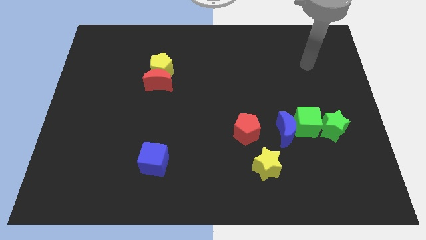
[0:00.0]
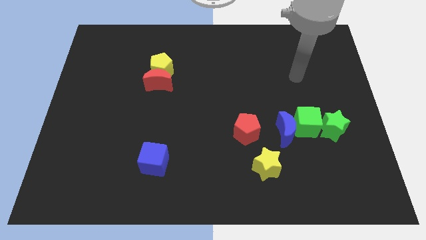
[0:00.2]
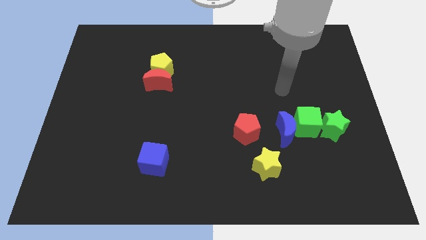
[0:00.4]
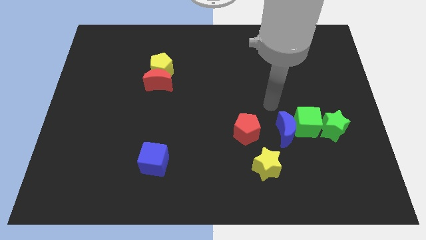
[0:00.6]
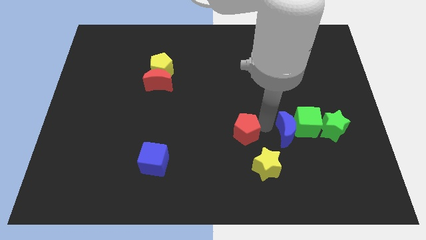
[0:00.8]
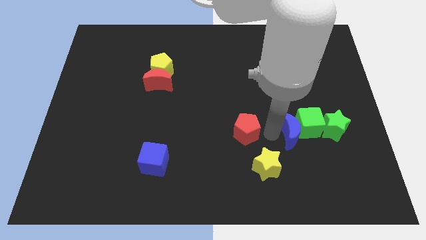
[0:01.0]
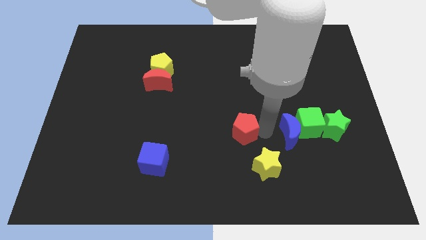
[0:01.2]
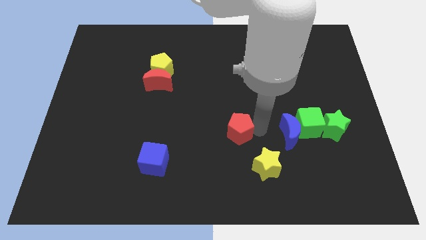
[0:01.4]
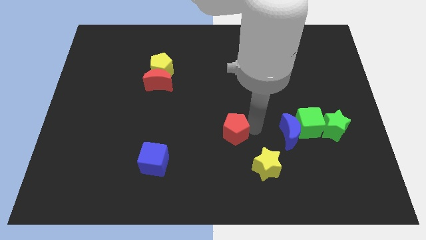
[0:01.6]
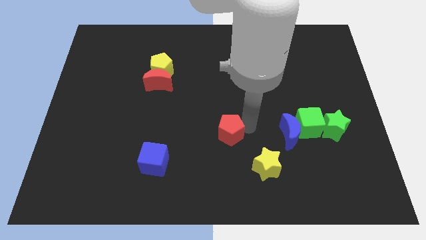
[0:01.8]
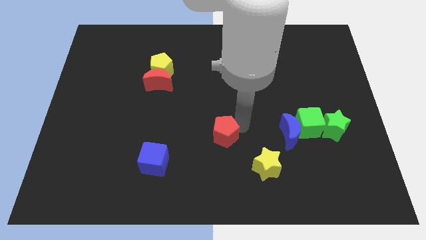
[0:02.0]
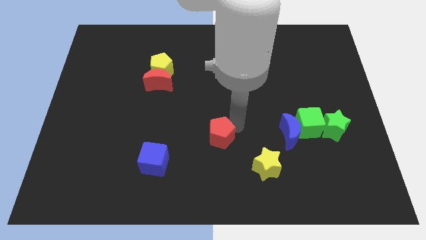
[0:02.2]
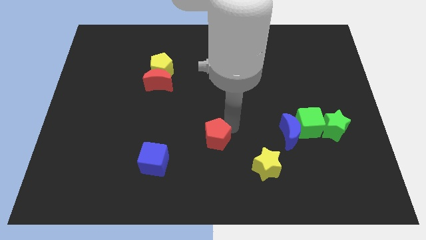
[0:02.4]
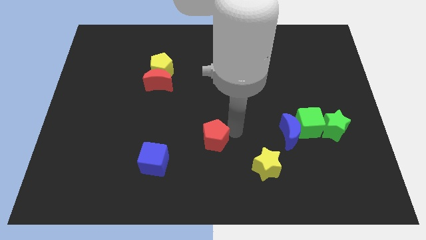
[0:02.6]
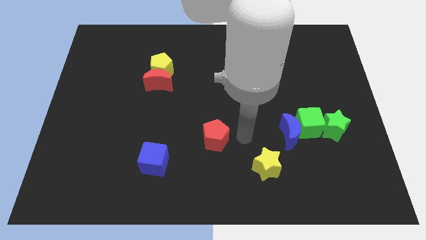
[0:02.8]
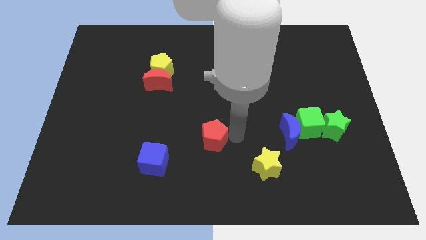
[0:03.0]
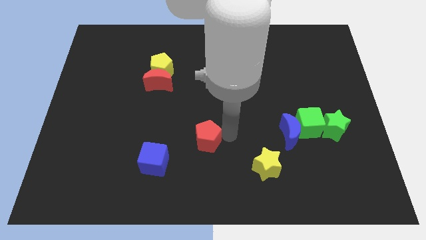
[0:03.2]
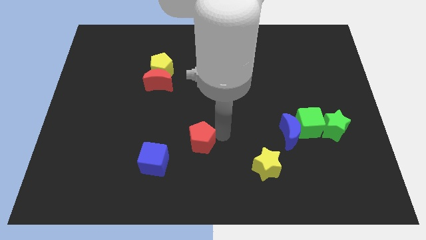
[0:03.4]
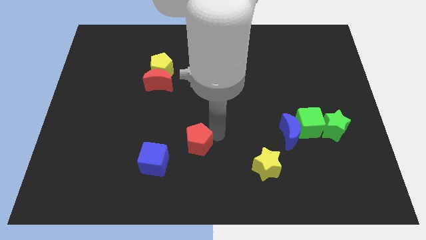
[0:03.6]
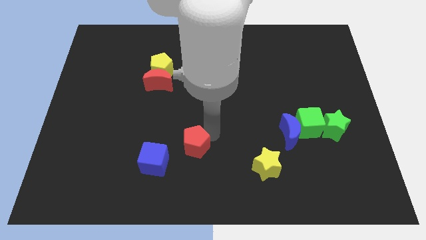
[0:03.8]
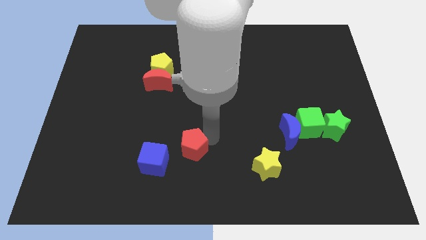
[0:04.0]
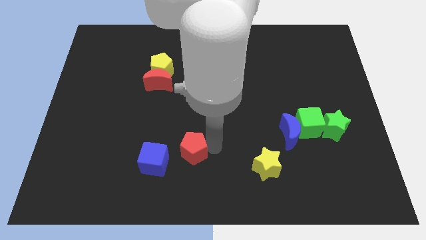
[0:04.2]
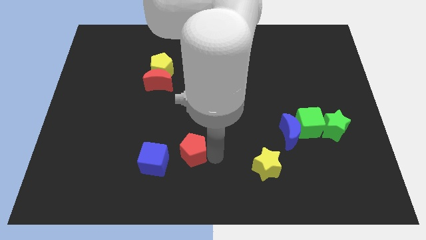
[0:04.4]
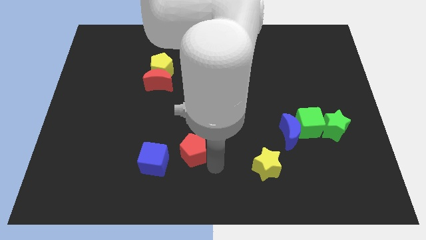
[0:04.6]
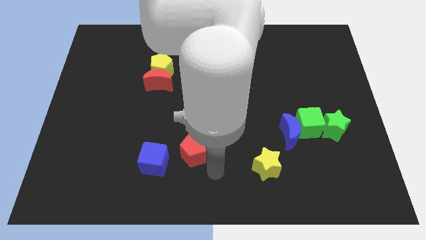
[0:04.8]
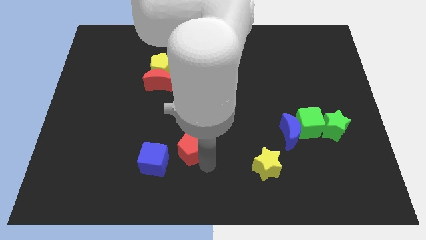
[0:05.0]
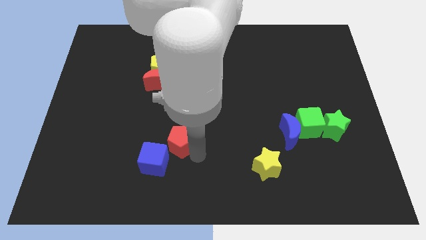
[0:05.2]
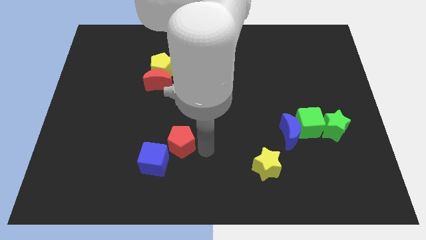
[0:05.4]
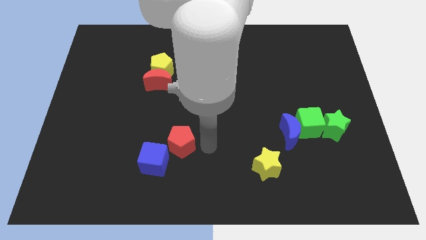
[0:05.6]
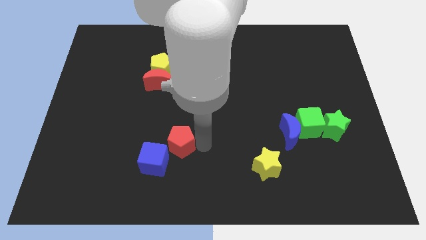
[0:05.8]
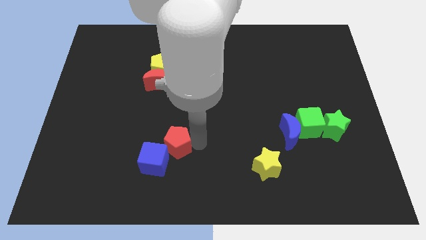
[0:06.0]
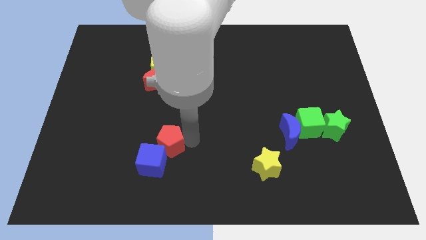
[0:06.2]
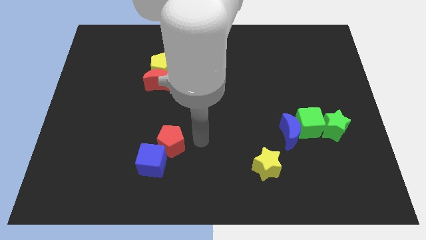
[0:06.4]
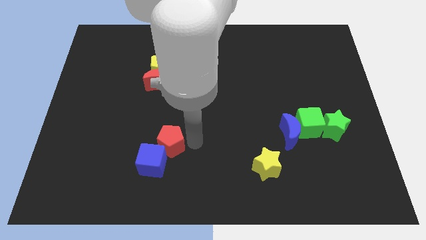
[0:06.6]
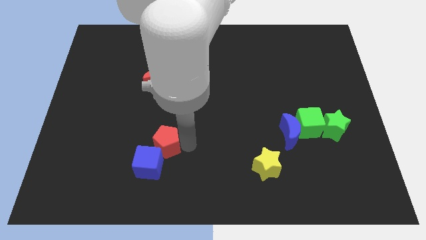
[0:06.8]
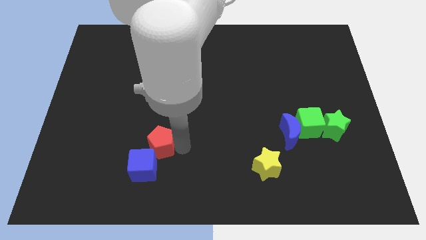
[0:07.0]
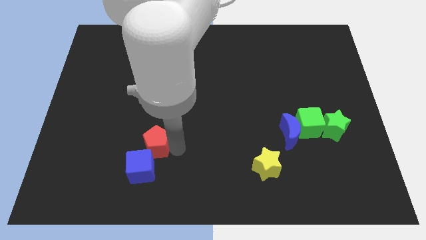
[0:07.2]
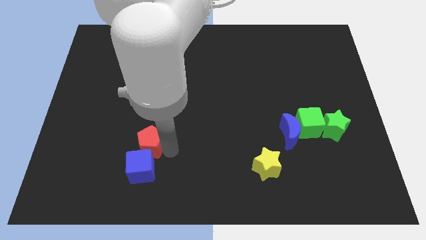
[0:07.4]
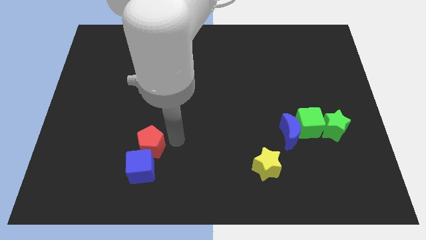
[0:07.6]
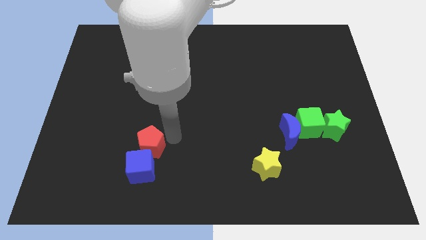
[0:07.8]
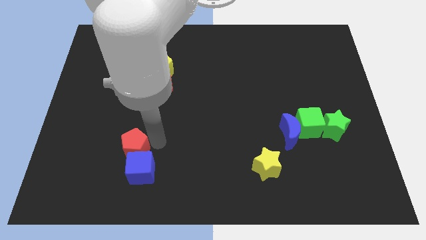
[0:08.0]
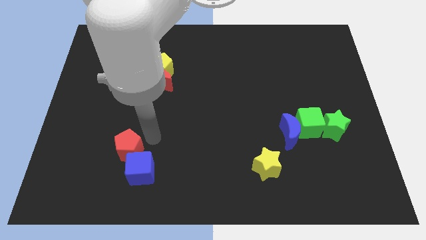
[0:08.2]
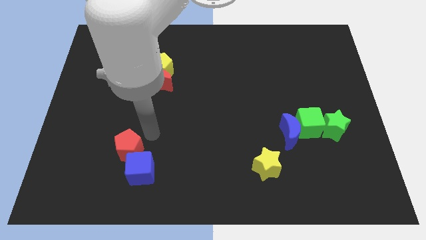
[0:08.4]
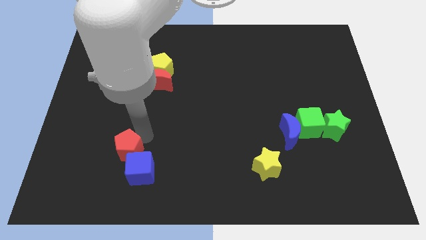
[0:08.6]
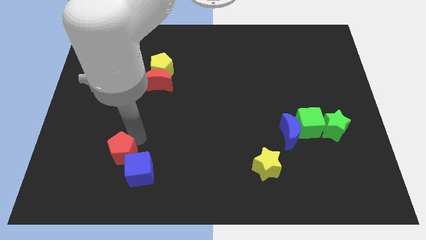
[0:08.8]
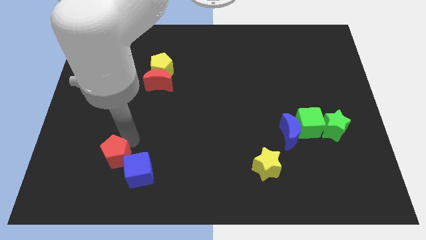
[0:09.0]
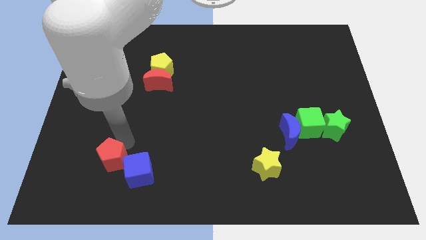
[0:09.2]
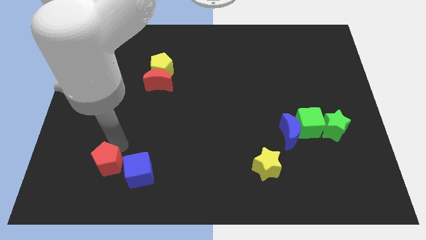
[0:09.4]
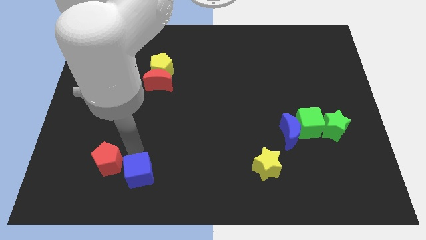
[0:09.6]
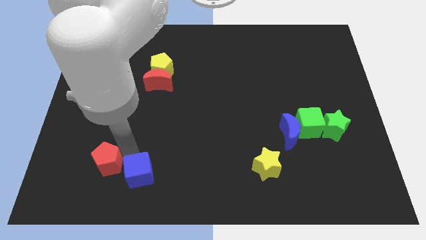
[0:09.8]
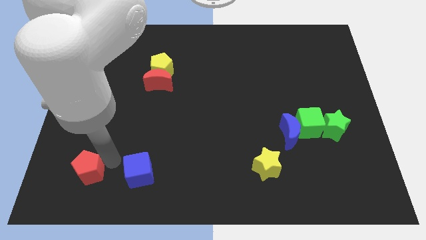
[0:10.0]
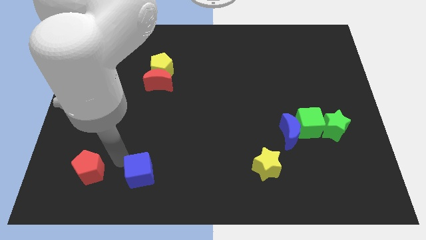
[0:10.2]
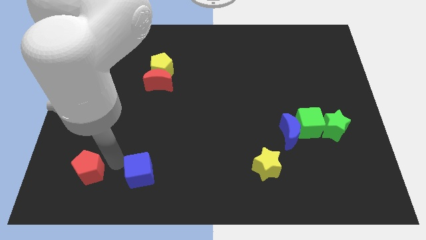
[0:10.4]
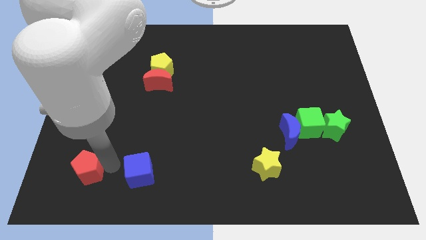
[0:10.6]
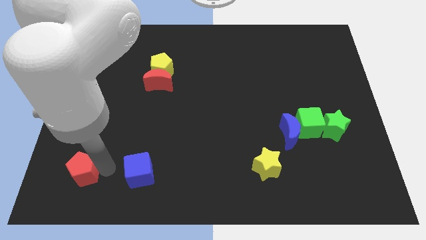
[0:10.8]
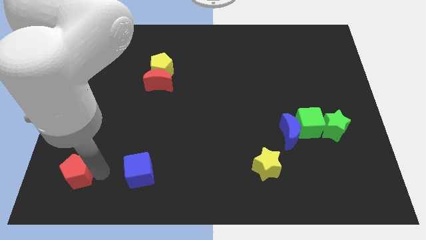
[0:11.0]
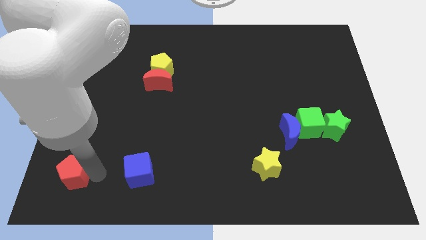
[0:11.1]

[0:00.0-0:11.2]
slide the red pentagon to the bottom left of the board

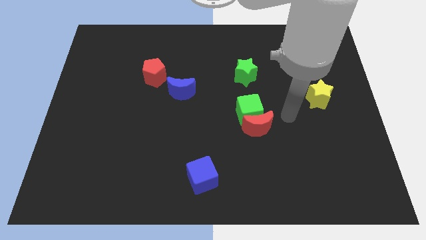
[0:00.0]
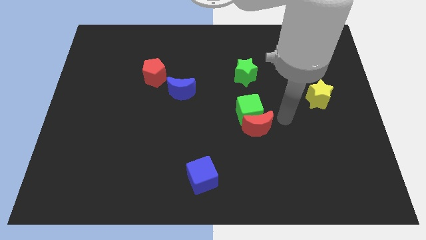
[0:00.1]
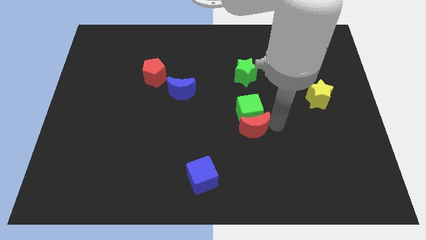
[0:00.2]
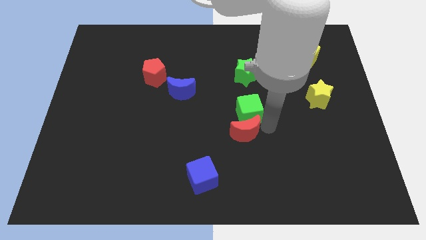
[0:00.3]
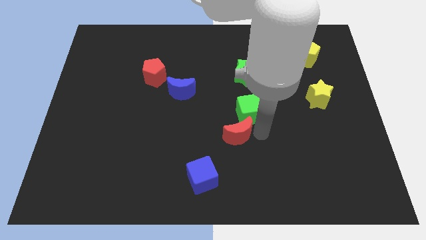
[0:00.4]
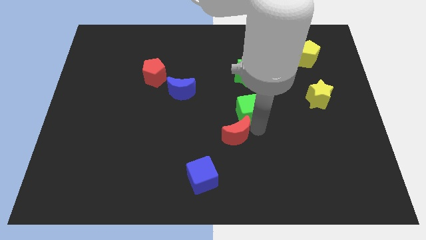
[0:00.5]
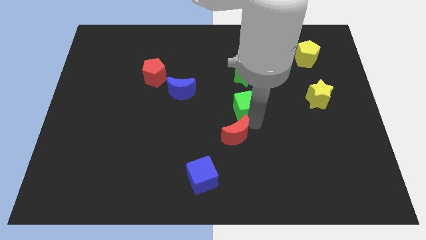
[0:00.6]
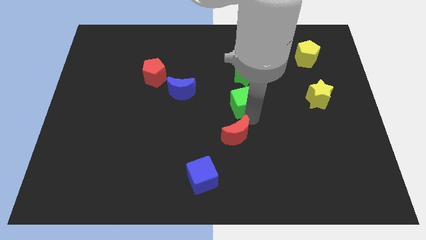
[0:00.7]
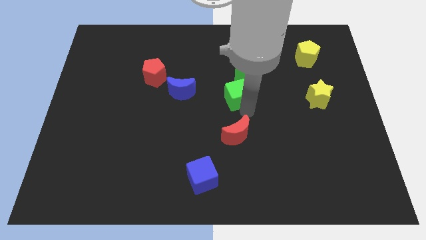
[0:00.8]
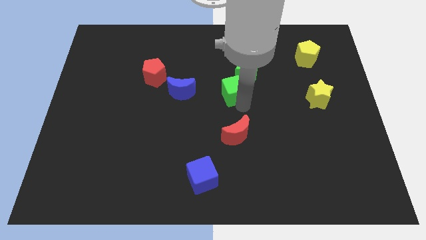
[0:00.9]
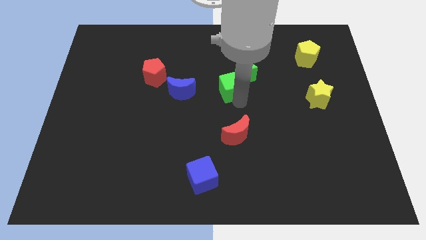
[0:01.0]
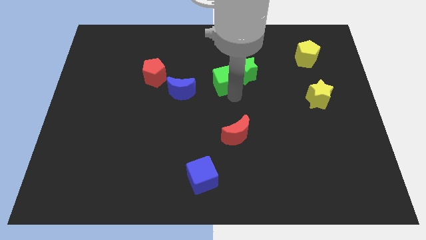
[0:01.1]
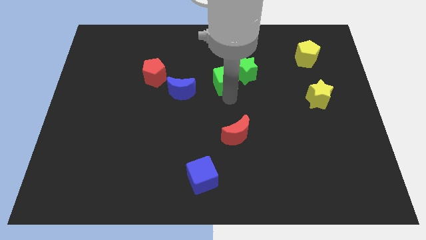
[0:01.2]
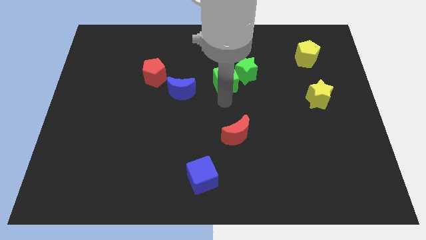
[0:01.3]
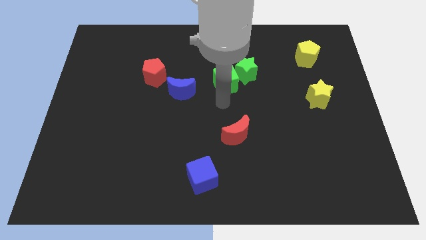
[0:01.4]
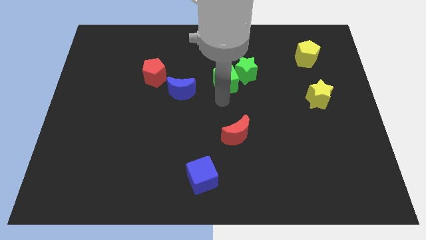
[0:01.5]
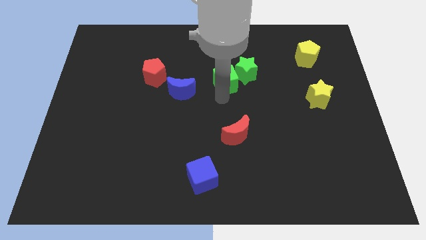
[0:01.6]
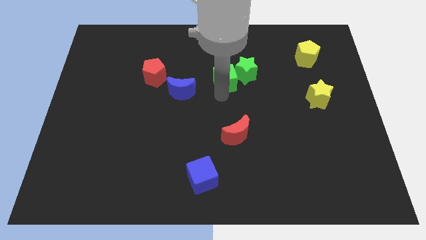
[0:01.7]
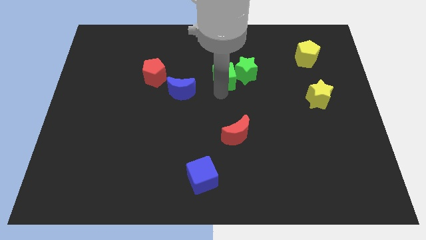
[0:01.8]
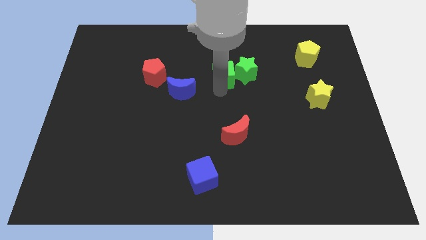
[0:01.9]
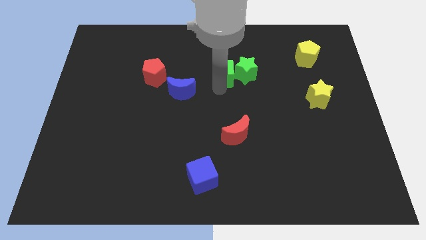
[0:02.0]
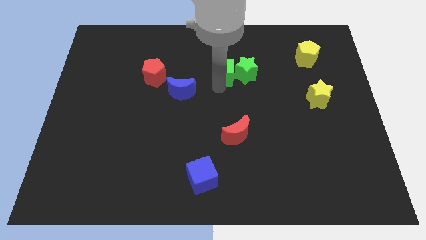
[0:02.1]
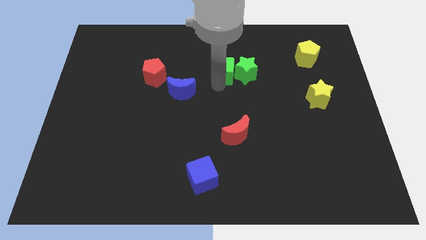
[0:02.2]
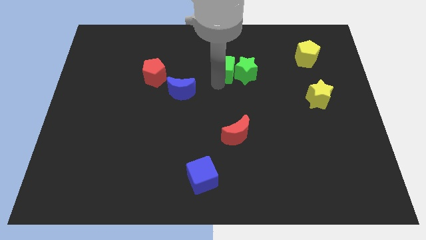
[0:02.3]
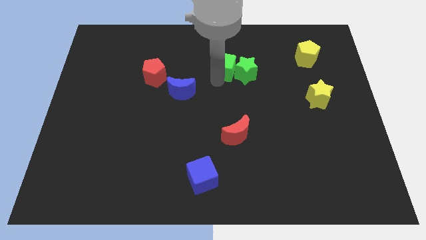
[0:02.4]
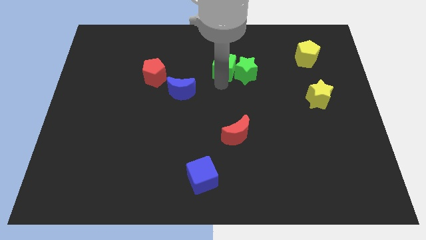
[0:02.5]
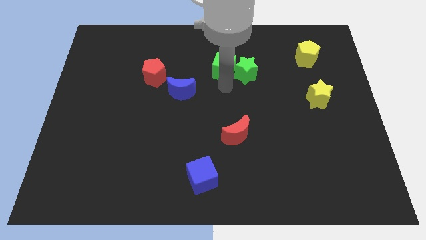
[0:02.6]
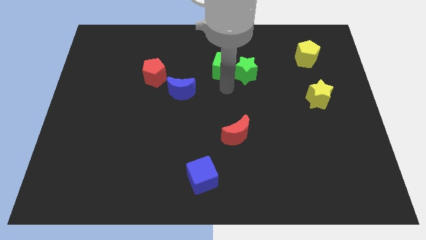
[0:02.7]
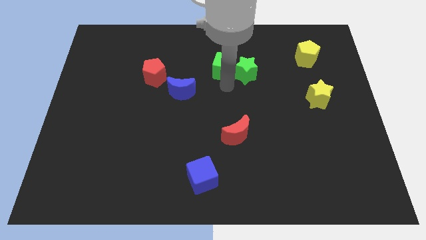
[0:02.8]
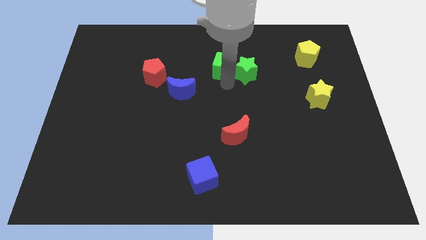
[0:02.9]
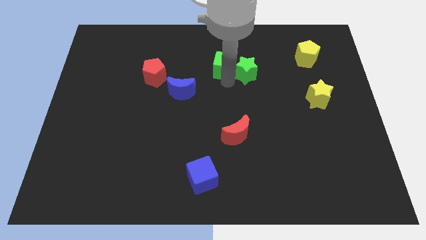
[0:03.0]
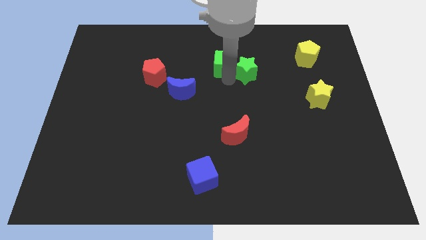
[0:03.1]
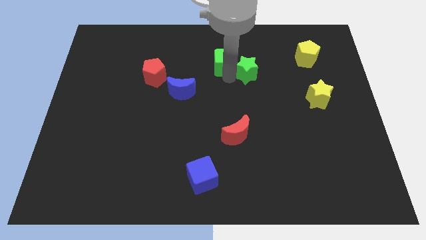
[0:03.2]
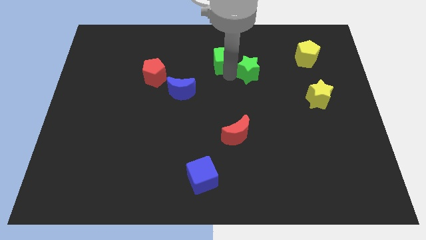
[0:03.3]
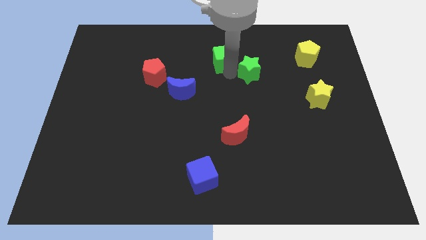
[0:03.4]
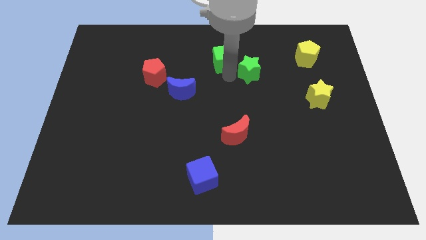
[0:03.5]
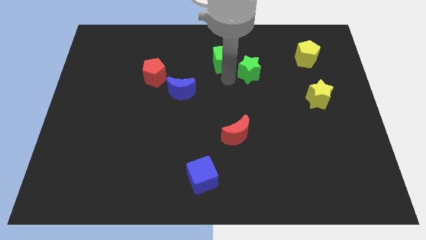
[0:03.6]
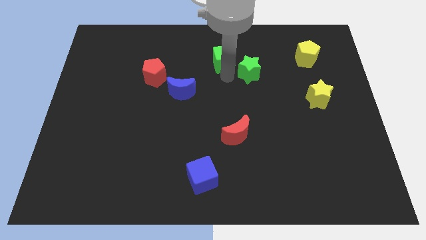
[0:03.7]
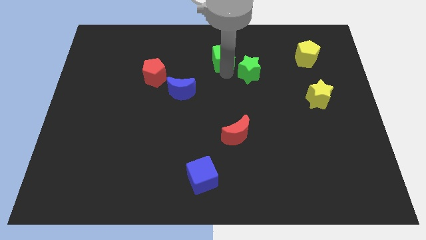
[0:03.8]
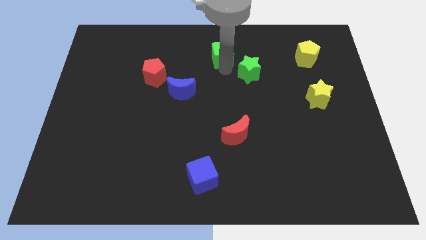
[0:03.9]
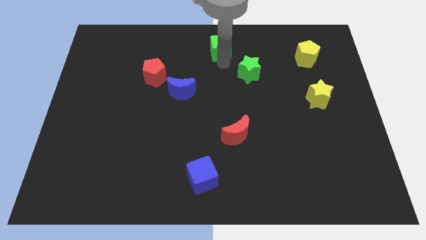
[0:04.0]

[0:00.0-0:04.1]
put the green cube to the top side
